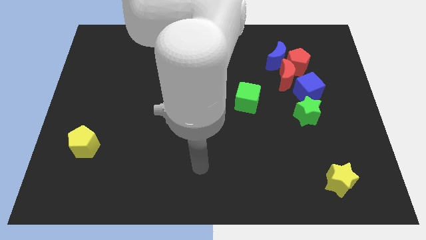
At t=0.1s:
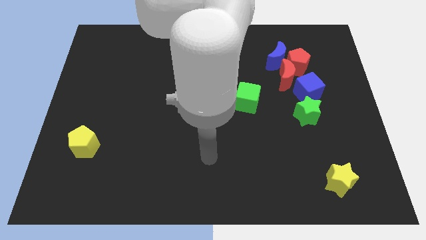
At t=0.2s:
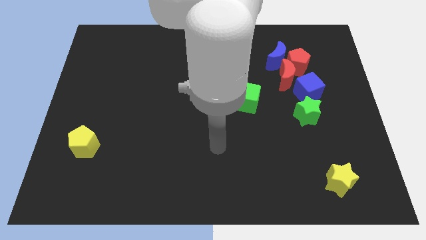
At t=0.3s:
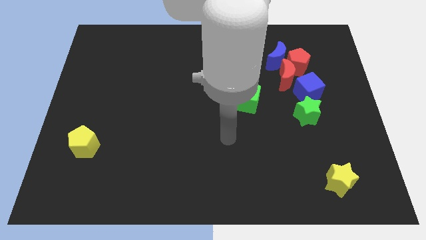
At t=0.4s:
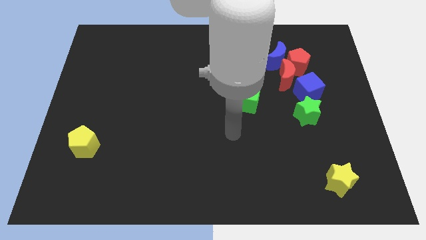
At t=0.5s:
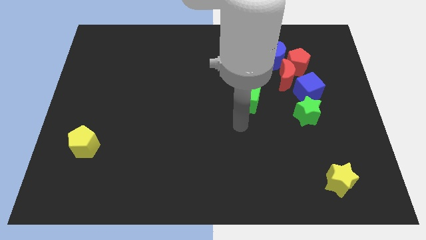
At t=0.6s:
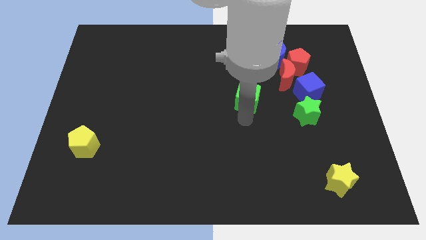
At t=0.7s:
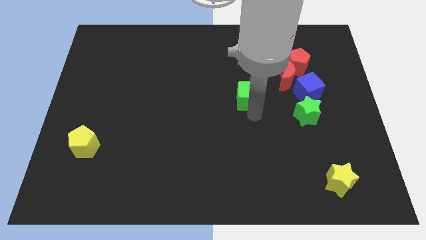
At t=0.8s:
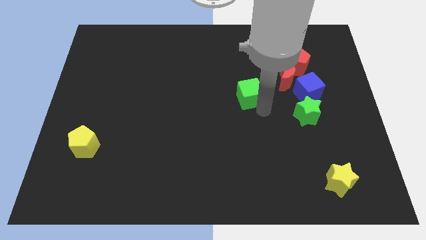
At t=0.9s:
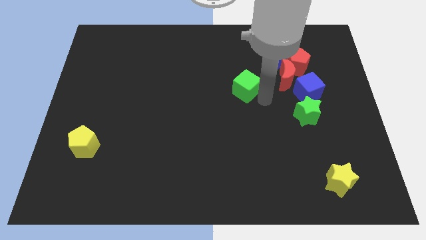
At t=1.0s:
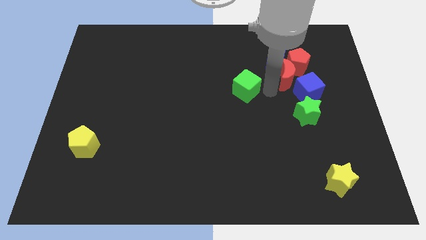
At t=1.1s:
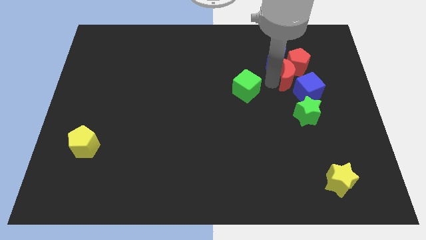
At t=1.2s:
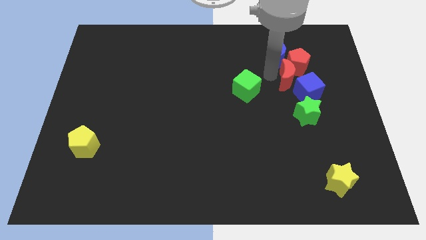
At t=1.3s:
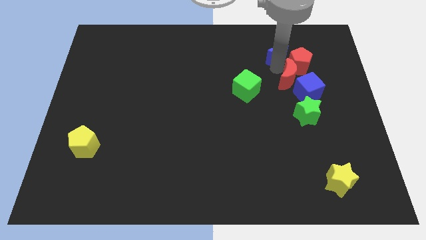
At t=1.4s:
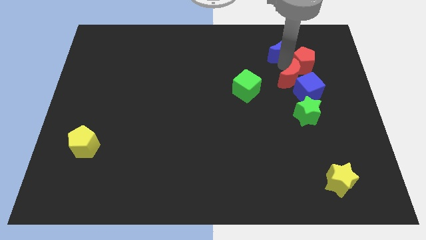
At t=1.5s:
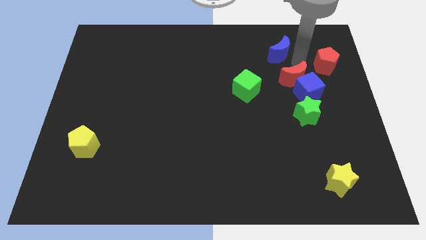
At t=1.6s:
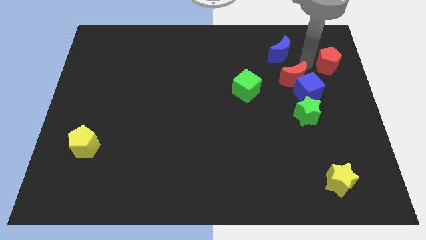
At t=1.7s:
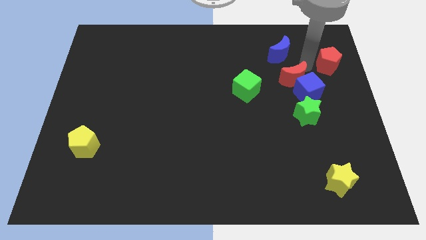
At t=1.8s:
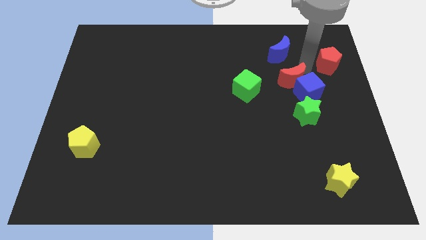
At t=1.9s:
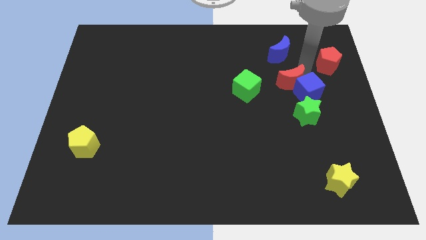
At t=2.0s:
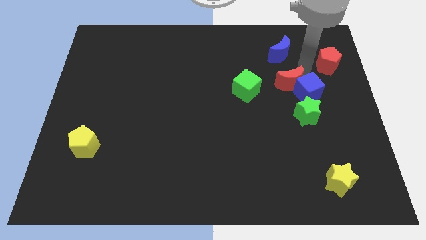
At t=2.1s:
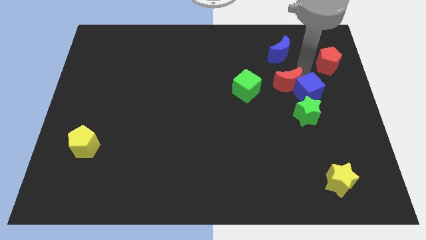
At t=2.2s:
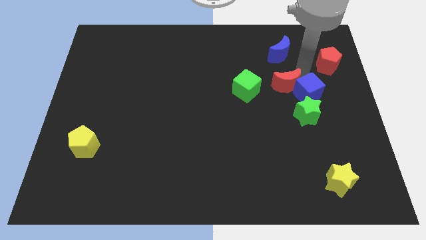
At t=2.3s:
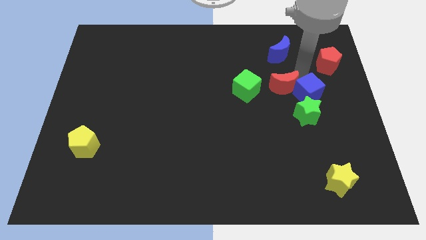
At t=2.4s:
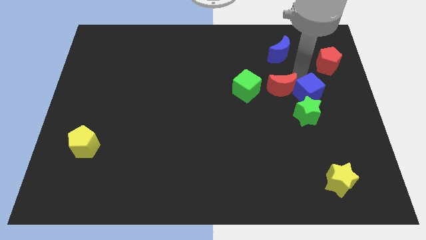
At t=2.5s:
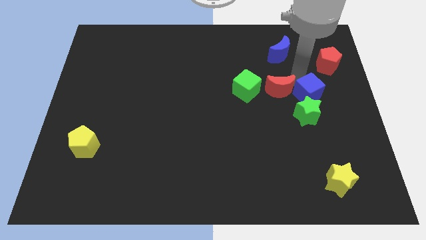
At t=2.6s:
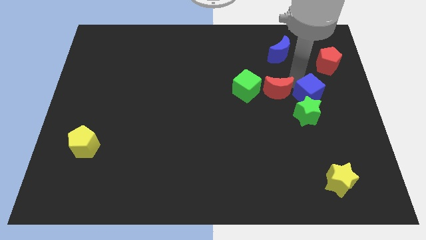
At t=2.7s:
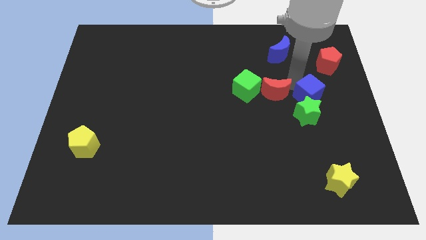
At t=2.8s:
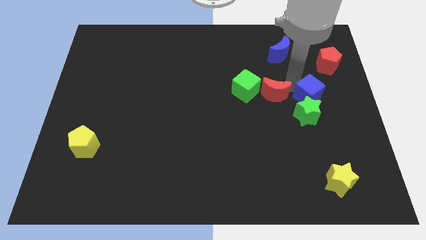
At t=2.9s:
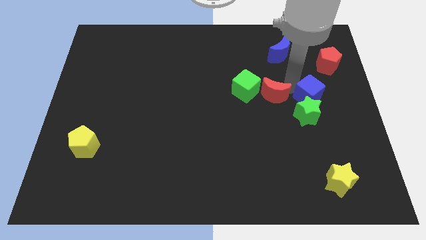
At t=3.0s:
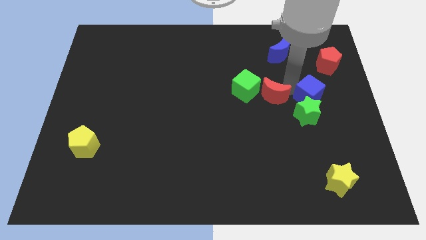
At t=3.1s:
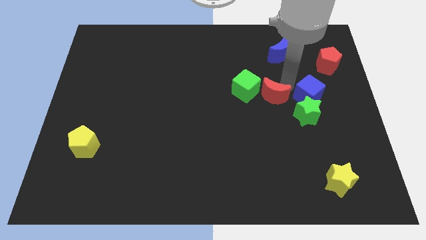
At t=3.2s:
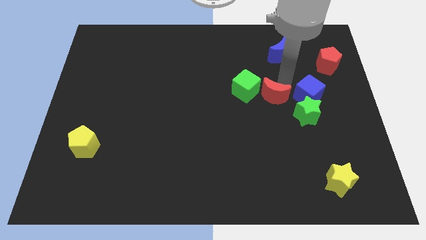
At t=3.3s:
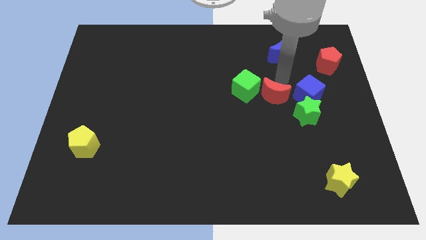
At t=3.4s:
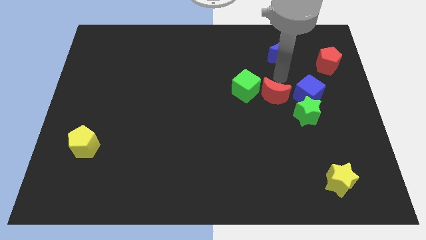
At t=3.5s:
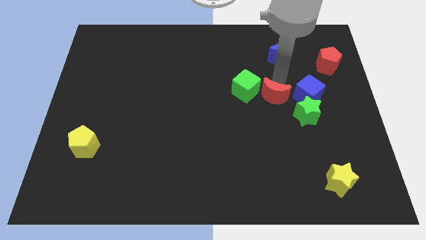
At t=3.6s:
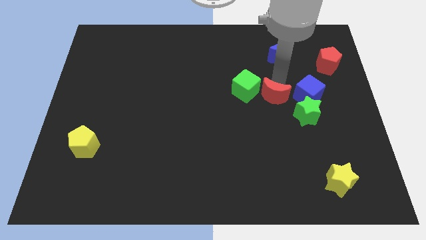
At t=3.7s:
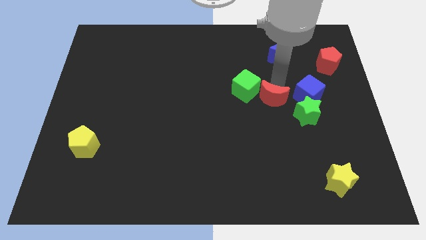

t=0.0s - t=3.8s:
slide the red moon downwards and to the left a little bit

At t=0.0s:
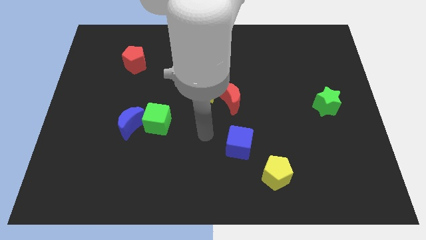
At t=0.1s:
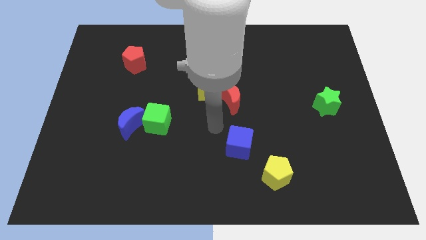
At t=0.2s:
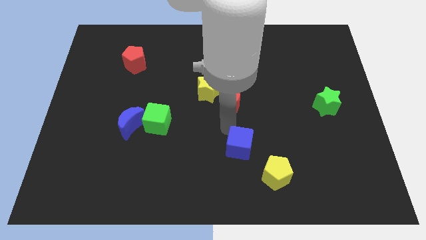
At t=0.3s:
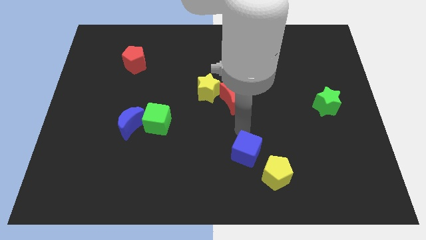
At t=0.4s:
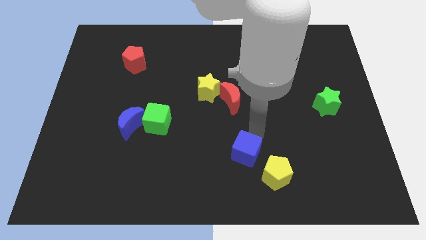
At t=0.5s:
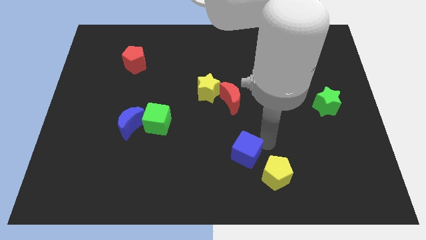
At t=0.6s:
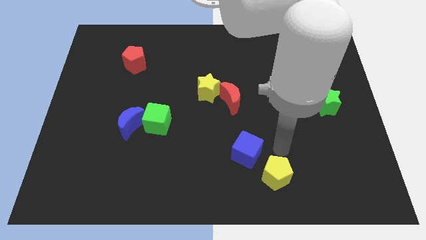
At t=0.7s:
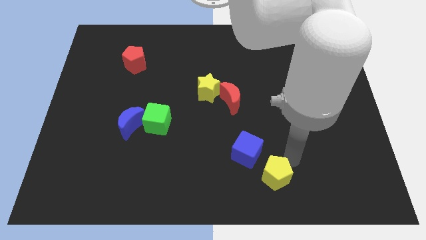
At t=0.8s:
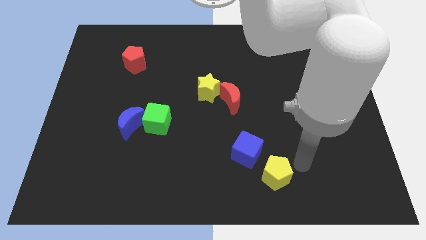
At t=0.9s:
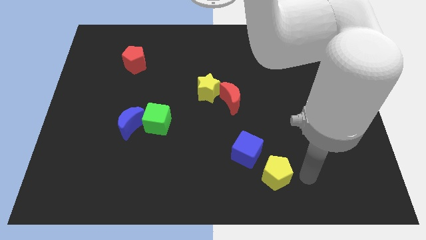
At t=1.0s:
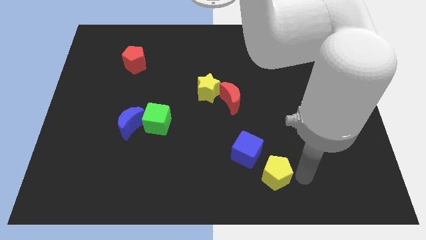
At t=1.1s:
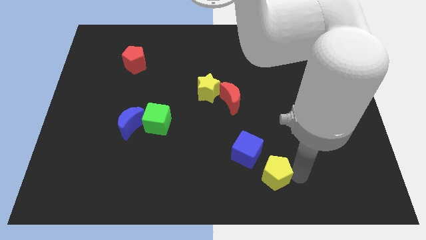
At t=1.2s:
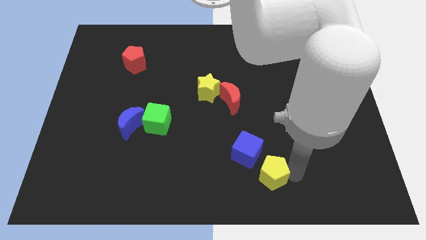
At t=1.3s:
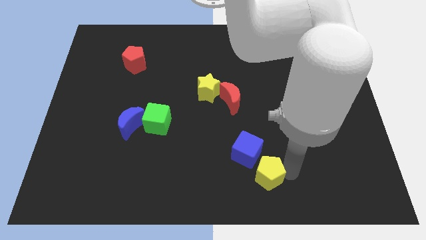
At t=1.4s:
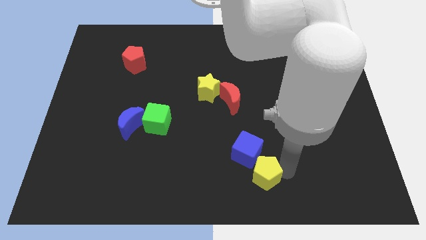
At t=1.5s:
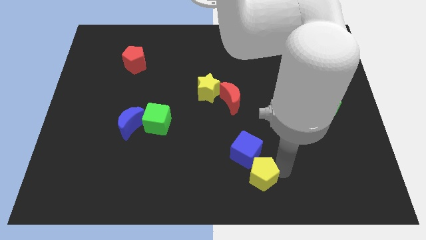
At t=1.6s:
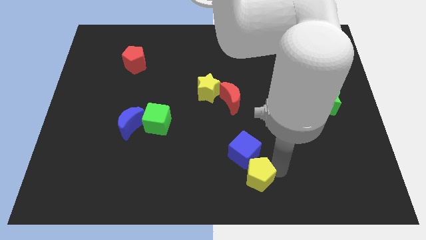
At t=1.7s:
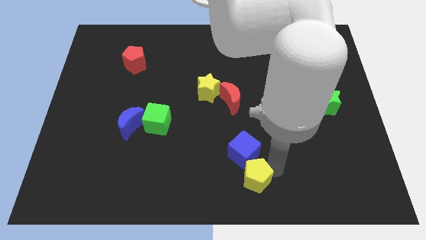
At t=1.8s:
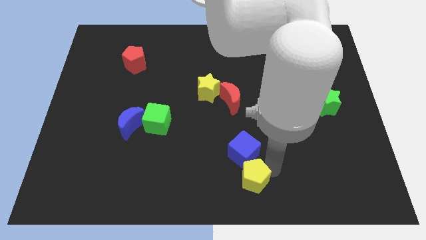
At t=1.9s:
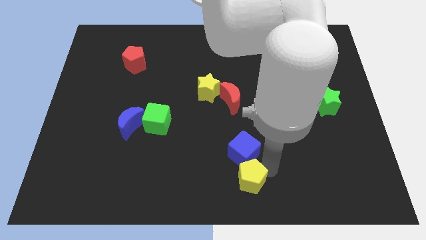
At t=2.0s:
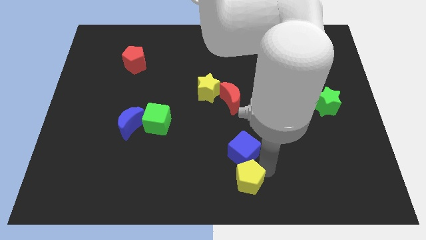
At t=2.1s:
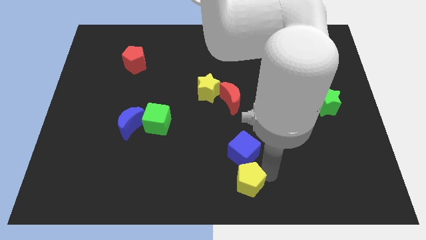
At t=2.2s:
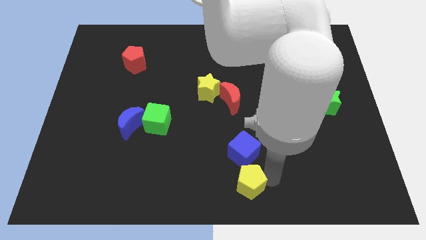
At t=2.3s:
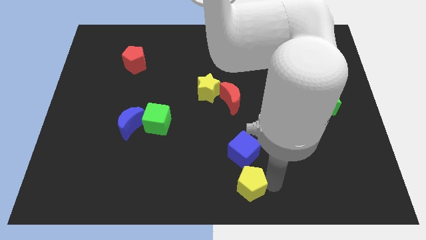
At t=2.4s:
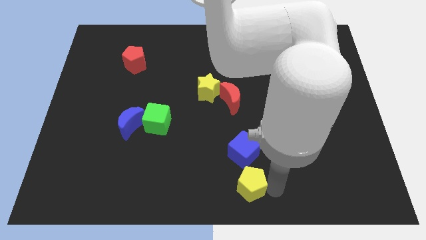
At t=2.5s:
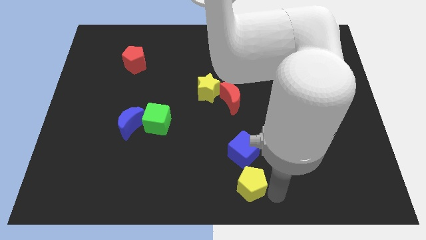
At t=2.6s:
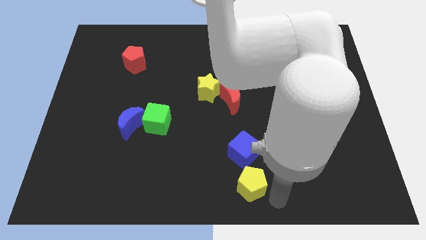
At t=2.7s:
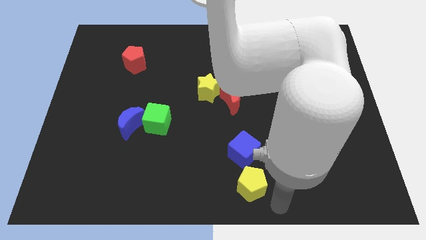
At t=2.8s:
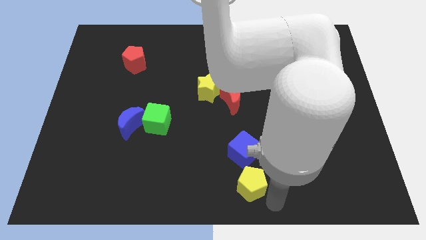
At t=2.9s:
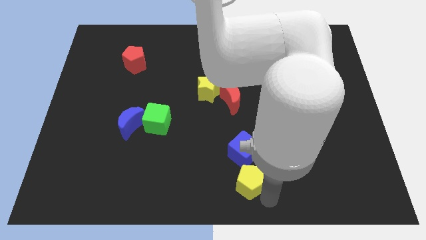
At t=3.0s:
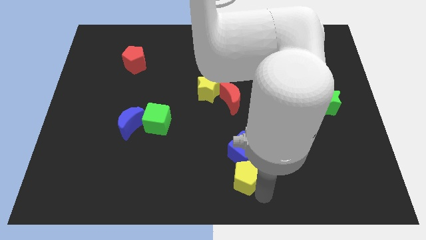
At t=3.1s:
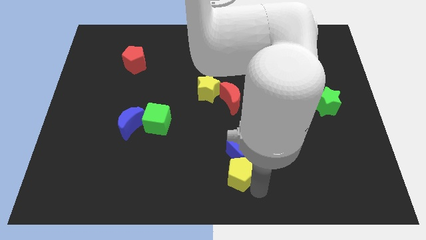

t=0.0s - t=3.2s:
slightly slide the yellow pentagon to the left

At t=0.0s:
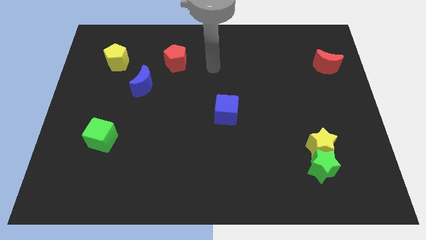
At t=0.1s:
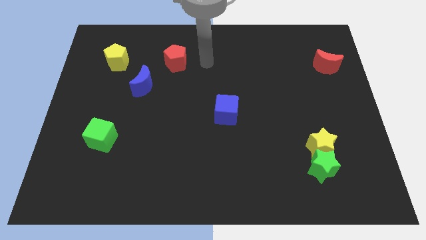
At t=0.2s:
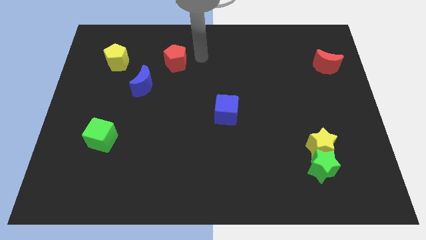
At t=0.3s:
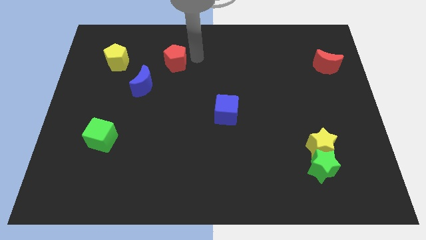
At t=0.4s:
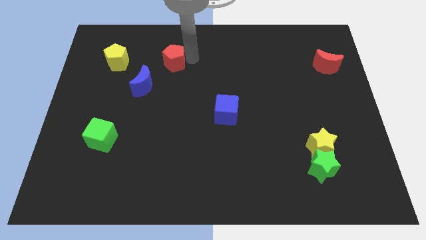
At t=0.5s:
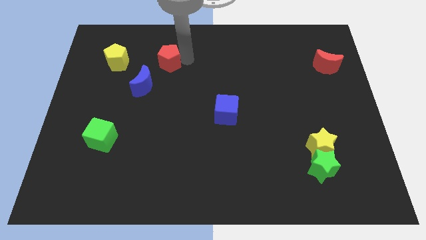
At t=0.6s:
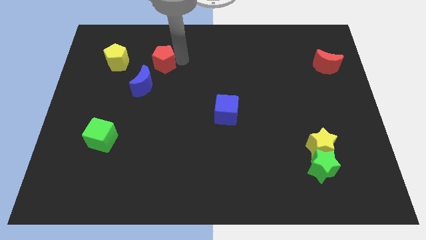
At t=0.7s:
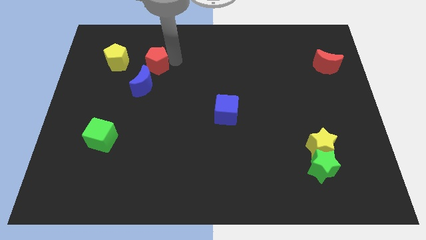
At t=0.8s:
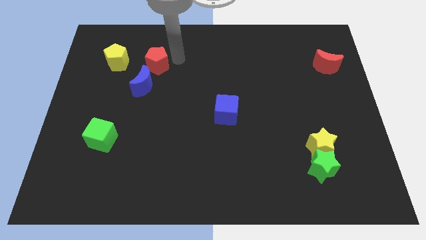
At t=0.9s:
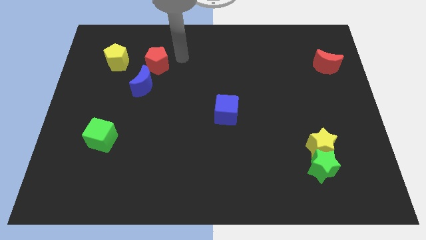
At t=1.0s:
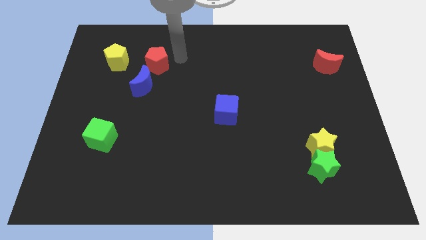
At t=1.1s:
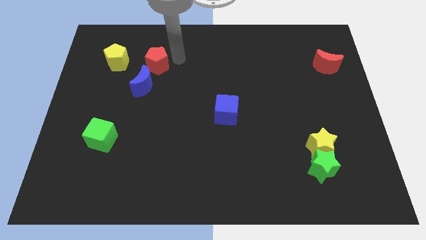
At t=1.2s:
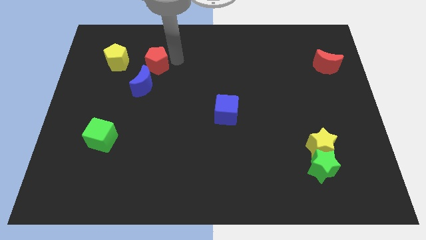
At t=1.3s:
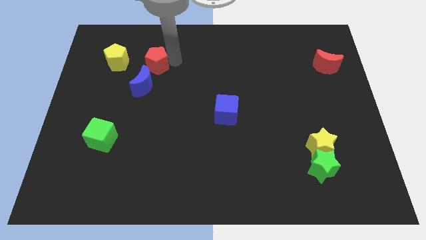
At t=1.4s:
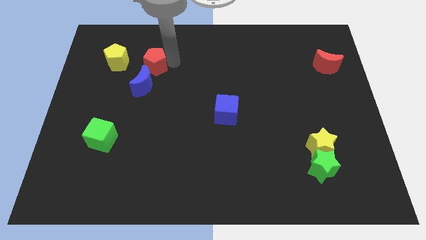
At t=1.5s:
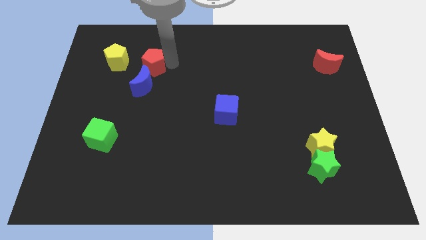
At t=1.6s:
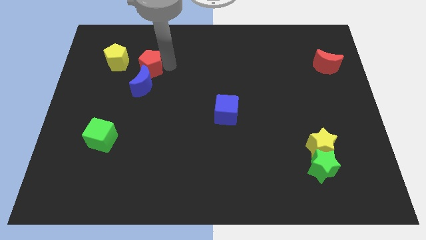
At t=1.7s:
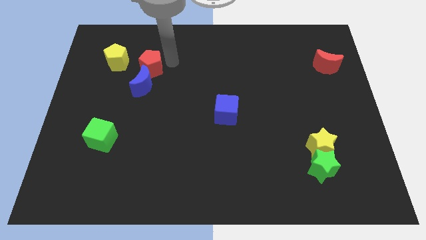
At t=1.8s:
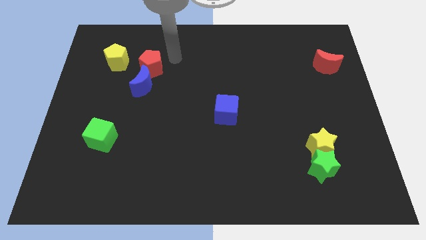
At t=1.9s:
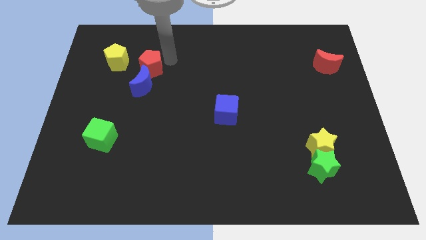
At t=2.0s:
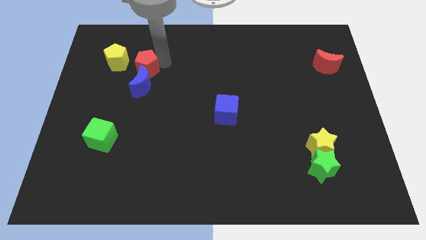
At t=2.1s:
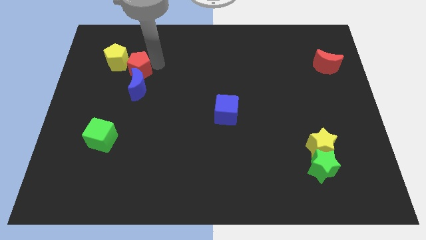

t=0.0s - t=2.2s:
slide the red pentagon somewhat diagonally downwards and left
